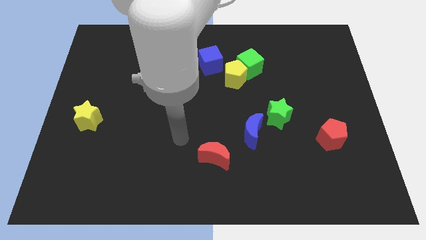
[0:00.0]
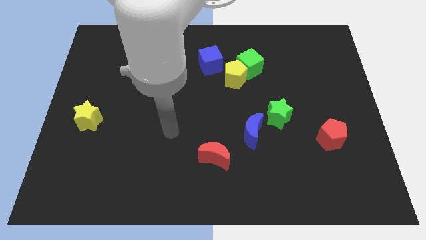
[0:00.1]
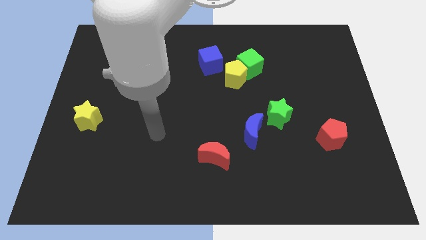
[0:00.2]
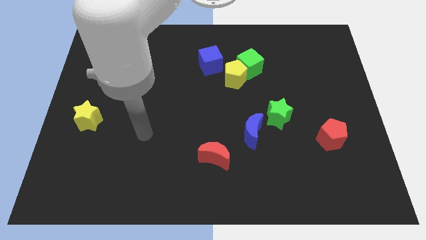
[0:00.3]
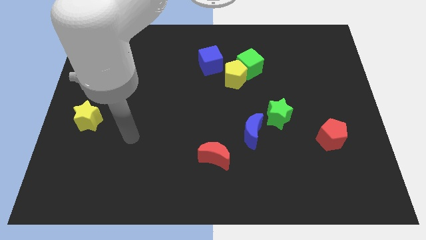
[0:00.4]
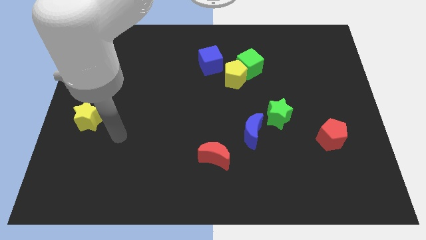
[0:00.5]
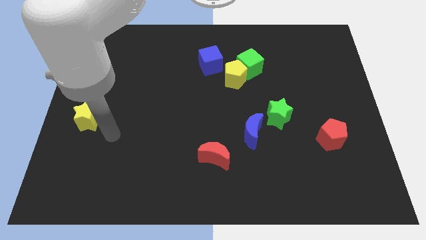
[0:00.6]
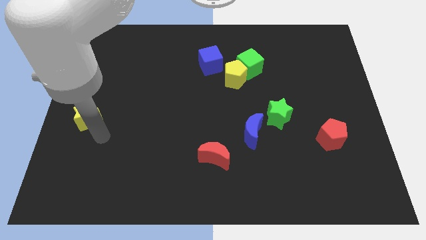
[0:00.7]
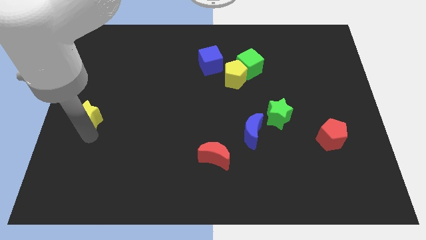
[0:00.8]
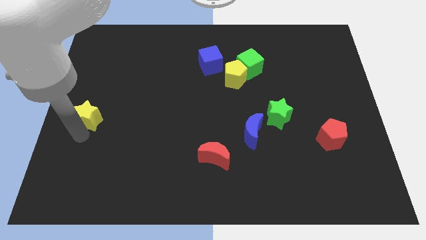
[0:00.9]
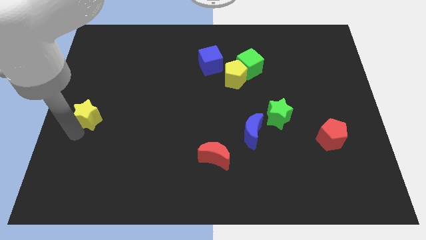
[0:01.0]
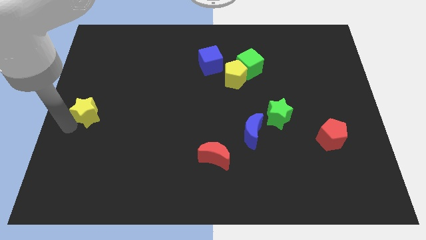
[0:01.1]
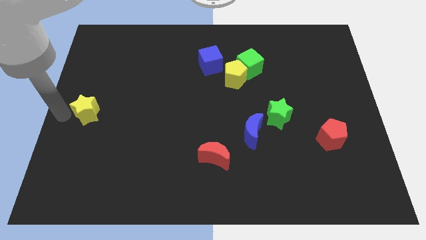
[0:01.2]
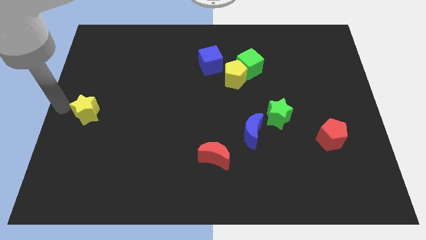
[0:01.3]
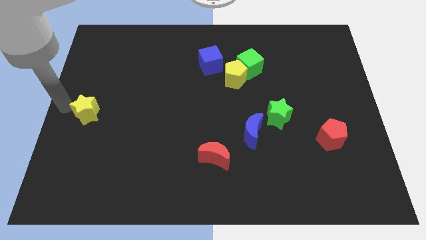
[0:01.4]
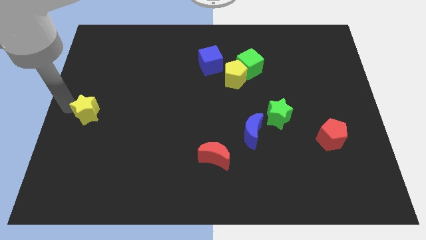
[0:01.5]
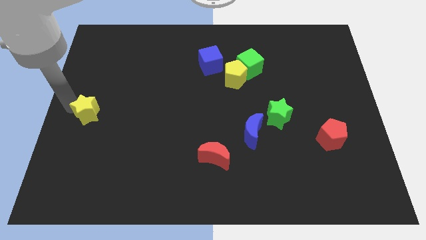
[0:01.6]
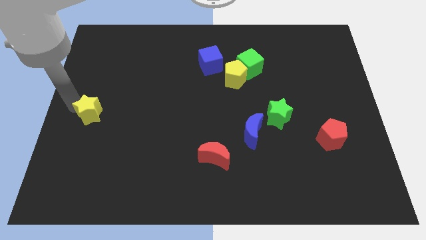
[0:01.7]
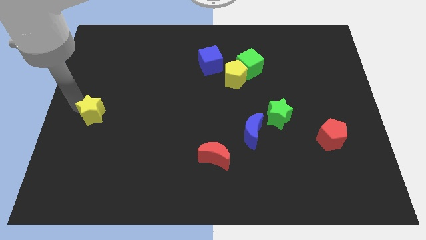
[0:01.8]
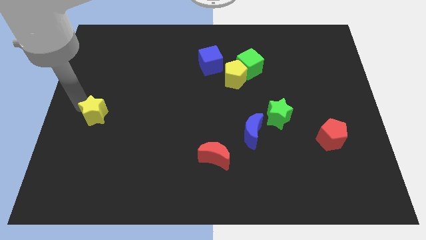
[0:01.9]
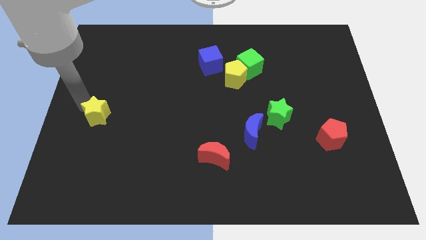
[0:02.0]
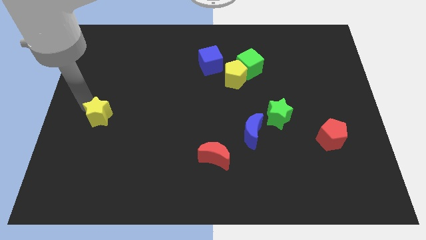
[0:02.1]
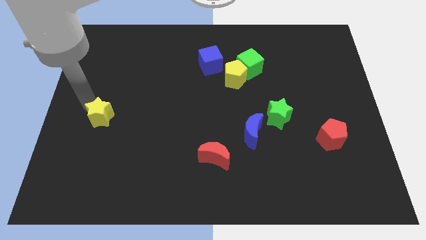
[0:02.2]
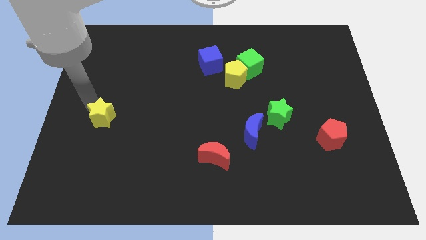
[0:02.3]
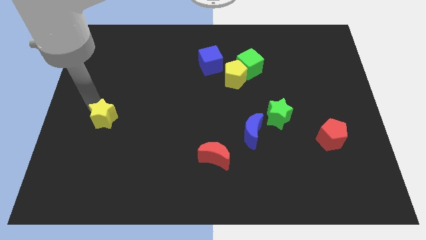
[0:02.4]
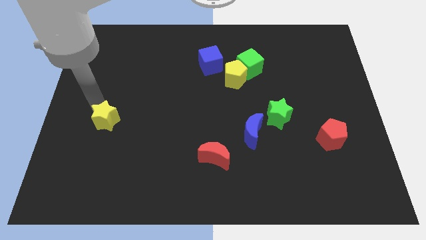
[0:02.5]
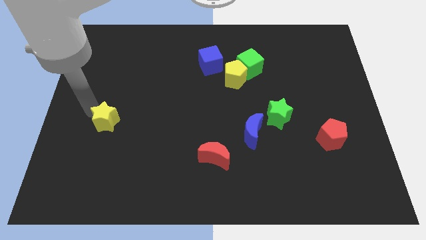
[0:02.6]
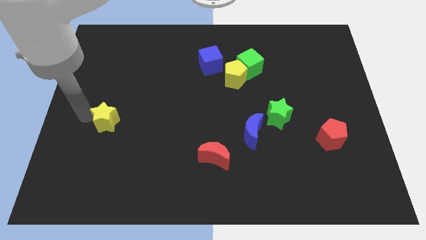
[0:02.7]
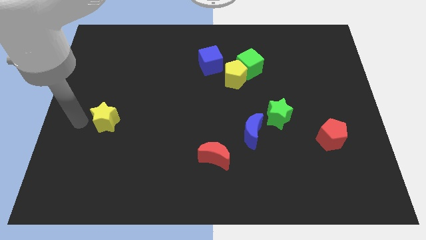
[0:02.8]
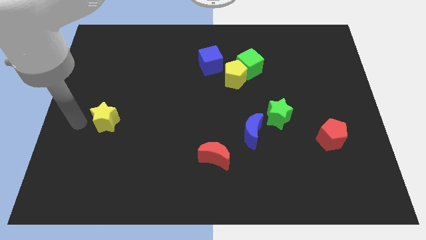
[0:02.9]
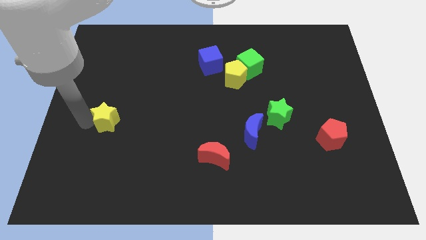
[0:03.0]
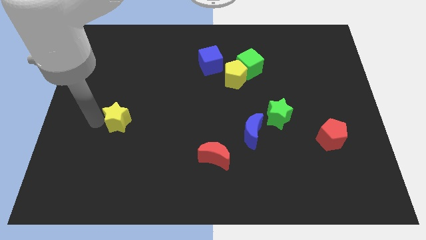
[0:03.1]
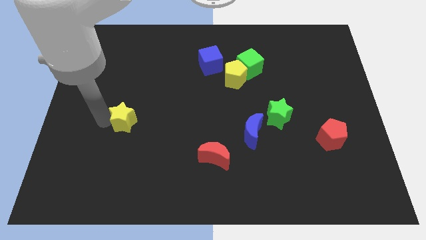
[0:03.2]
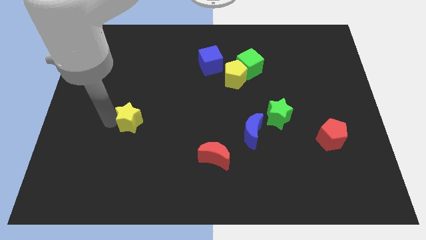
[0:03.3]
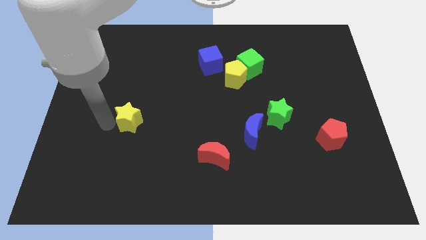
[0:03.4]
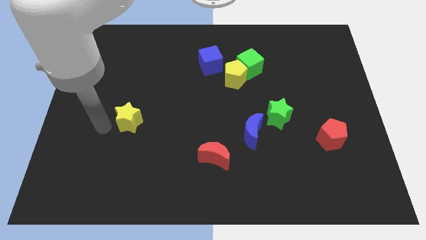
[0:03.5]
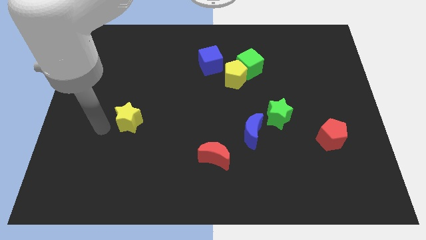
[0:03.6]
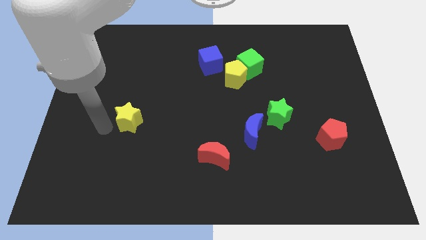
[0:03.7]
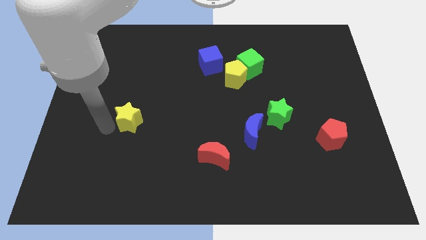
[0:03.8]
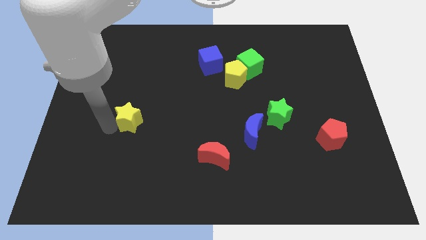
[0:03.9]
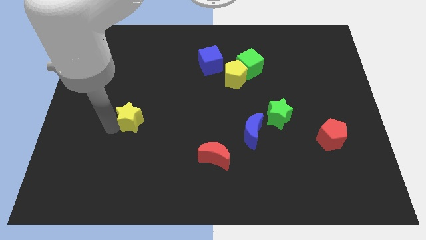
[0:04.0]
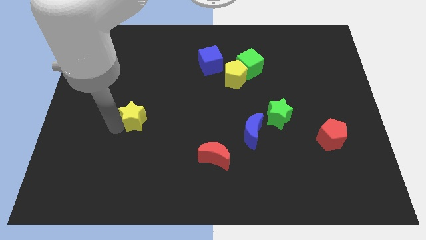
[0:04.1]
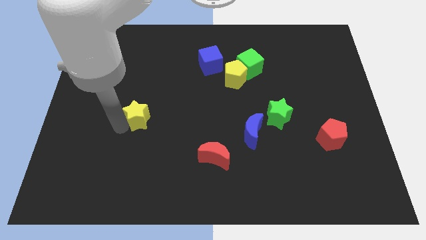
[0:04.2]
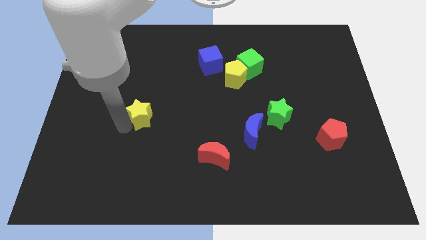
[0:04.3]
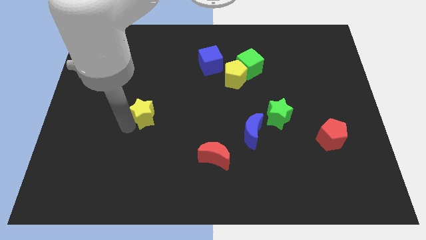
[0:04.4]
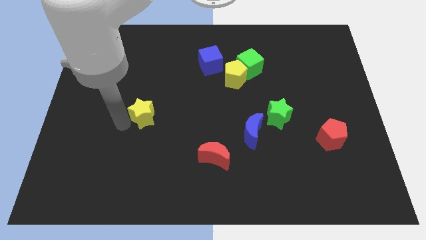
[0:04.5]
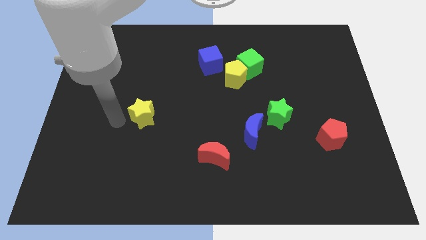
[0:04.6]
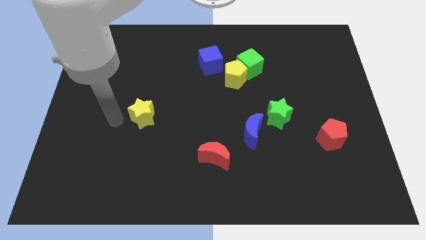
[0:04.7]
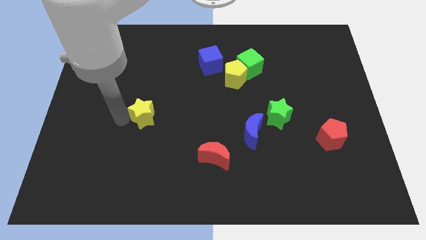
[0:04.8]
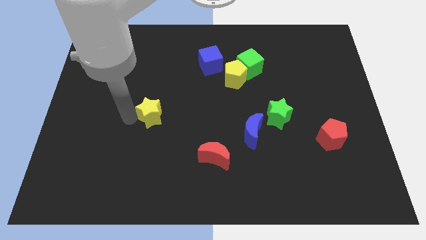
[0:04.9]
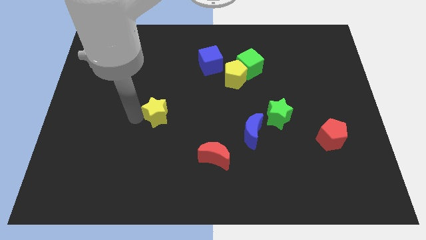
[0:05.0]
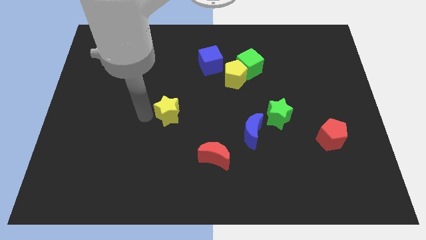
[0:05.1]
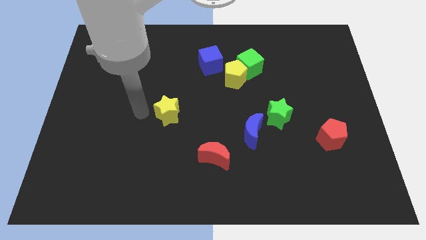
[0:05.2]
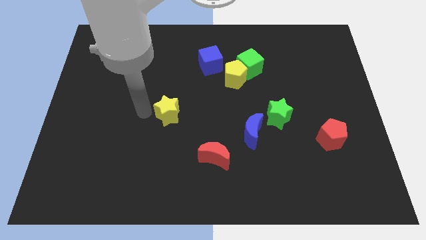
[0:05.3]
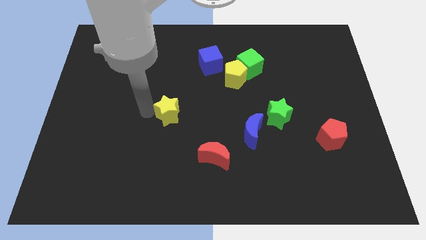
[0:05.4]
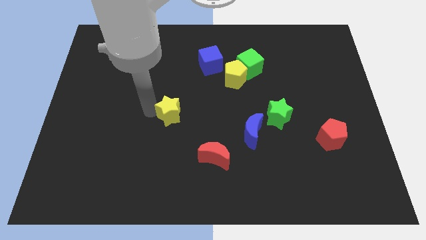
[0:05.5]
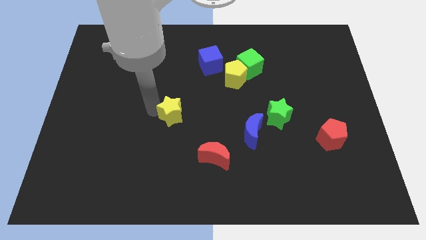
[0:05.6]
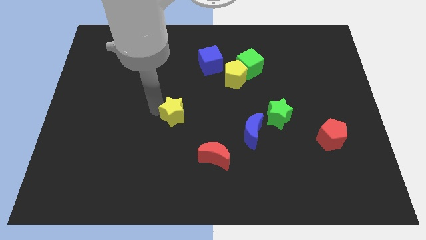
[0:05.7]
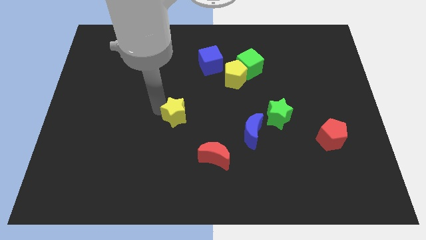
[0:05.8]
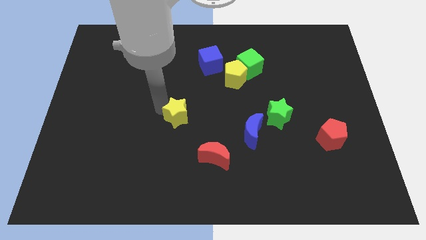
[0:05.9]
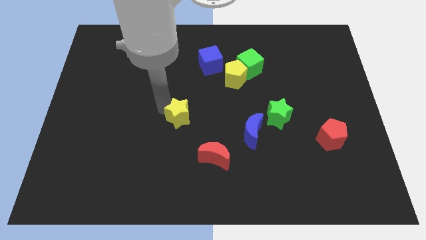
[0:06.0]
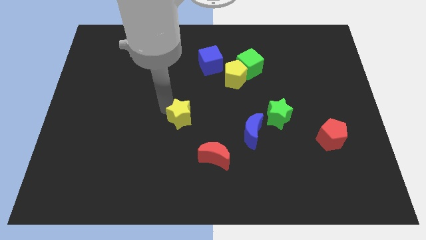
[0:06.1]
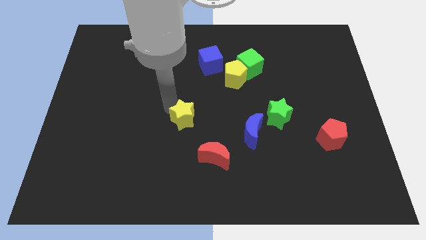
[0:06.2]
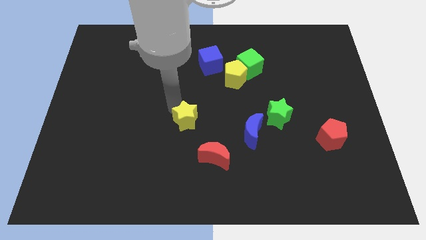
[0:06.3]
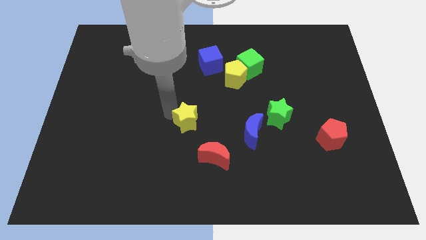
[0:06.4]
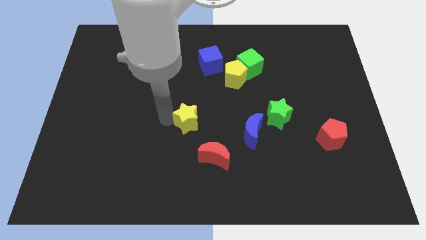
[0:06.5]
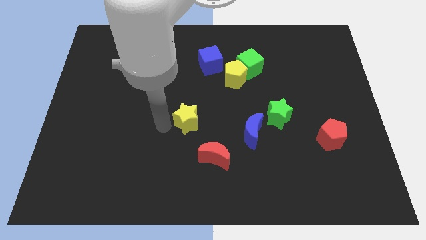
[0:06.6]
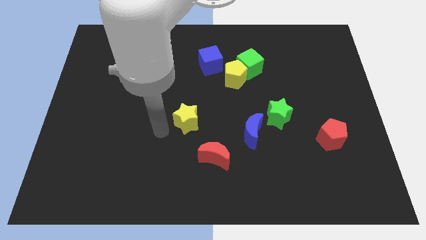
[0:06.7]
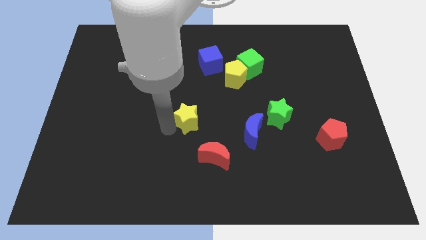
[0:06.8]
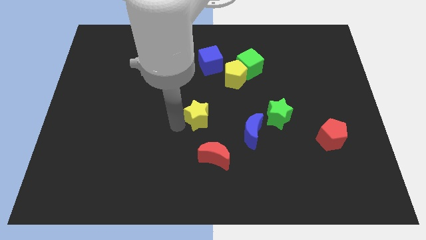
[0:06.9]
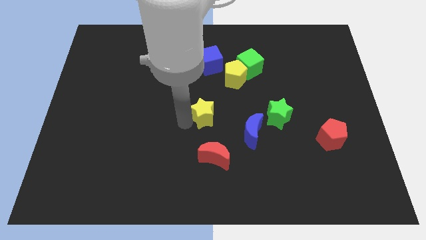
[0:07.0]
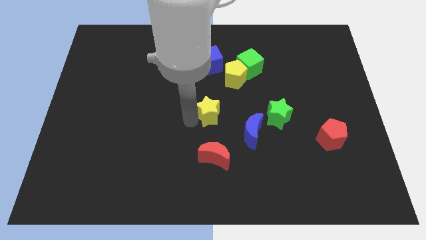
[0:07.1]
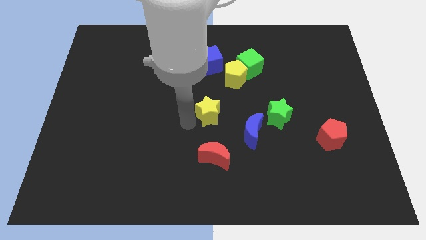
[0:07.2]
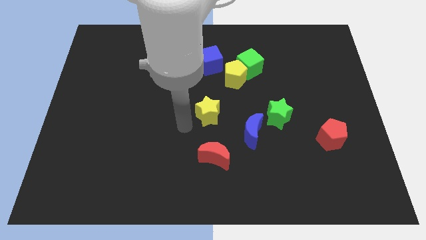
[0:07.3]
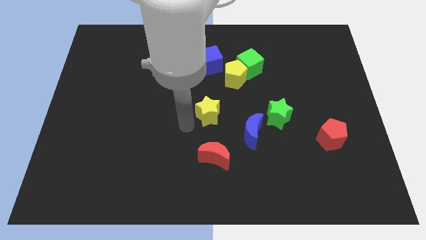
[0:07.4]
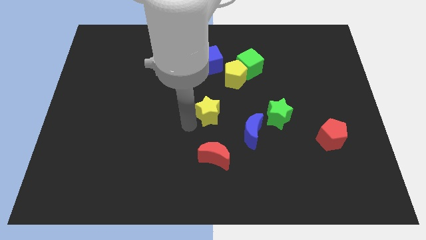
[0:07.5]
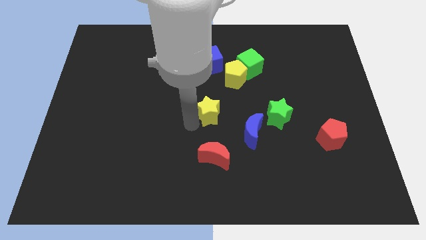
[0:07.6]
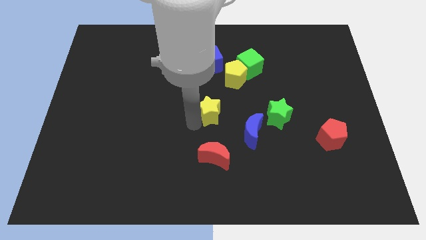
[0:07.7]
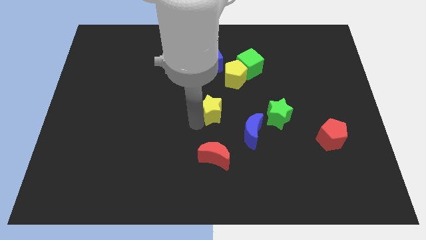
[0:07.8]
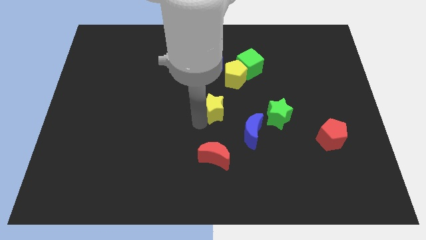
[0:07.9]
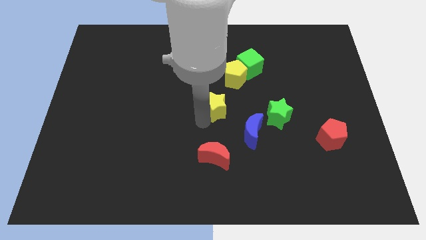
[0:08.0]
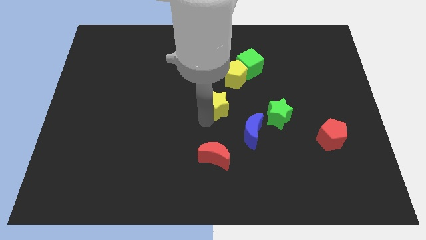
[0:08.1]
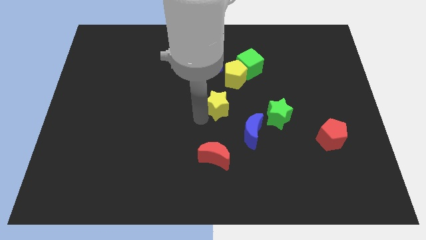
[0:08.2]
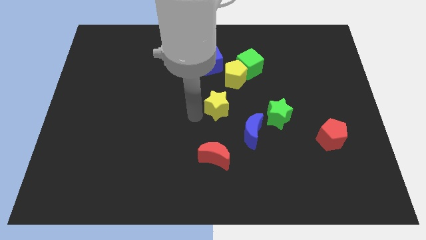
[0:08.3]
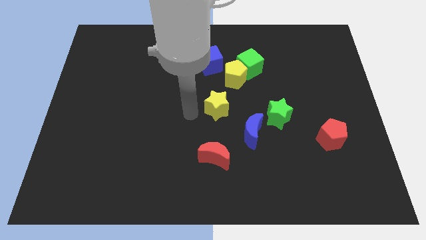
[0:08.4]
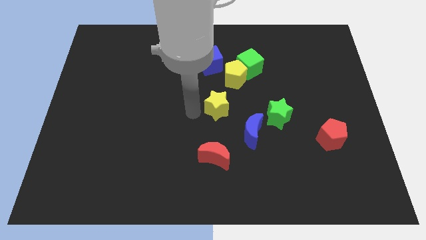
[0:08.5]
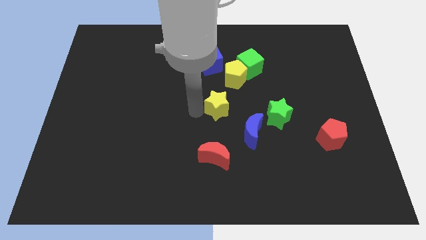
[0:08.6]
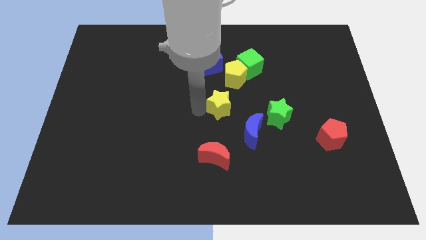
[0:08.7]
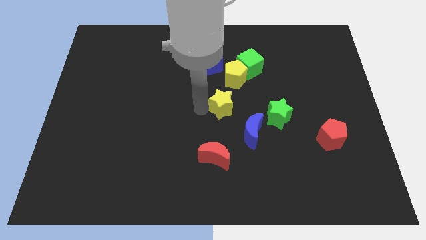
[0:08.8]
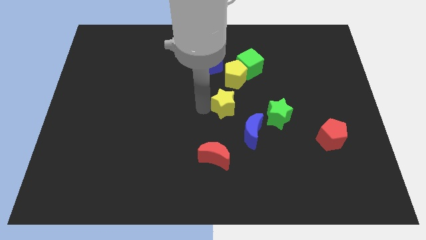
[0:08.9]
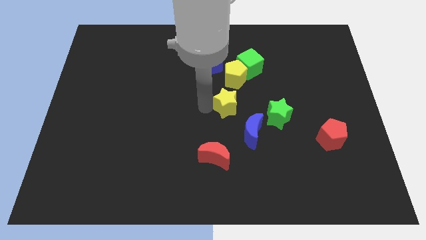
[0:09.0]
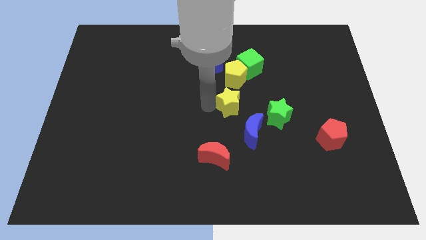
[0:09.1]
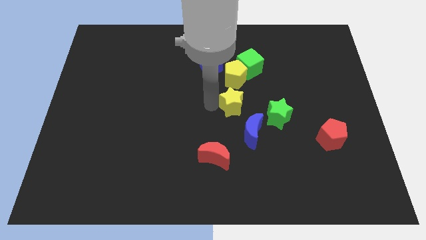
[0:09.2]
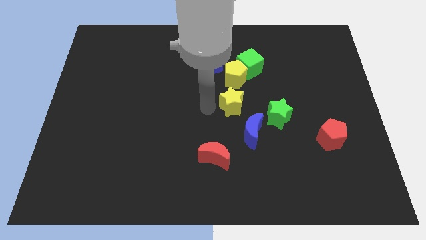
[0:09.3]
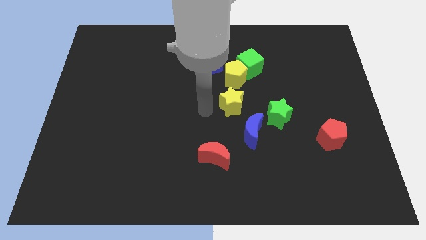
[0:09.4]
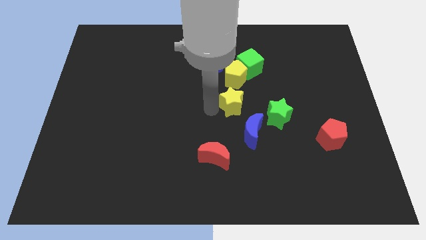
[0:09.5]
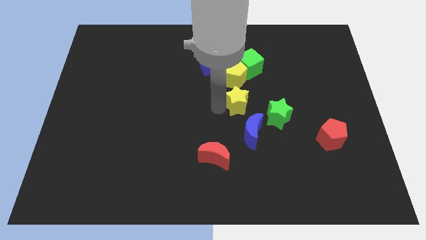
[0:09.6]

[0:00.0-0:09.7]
push the yellow star to the top left of the green star
